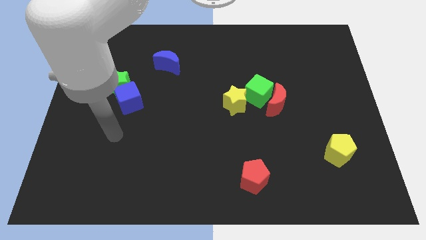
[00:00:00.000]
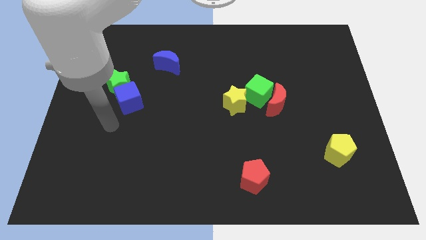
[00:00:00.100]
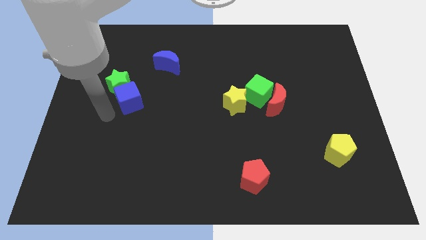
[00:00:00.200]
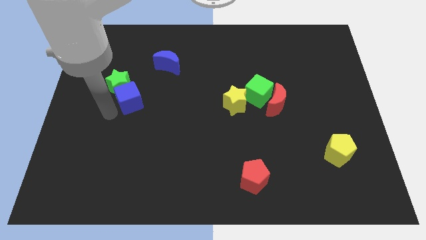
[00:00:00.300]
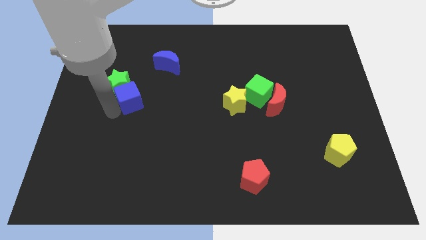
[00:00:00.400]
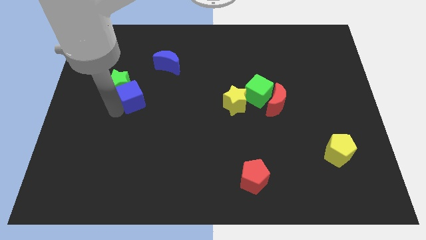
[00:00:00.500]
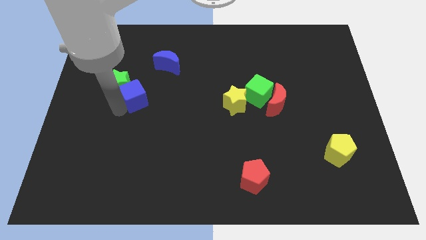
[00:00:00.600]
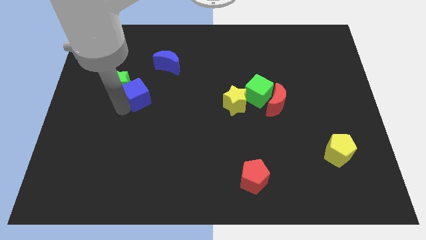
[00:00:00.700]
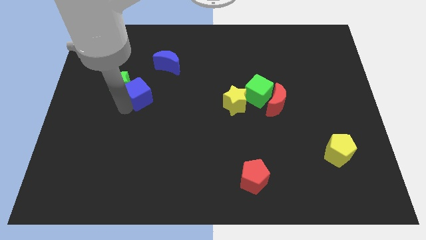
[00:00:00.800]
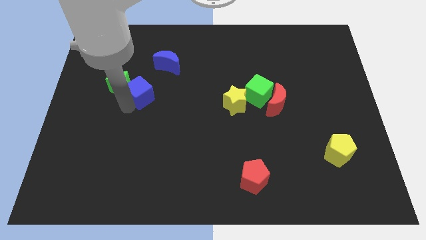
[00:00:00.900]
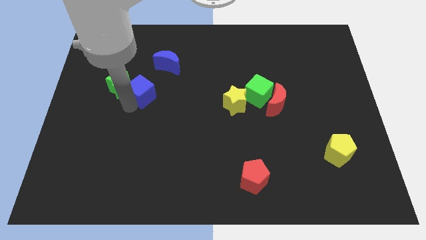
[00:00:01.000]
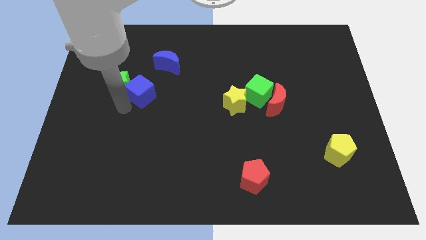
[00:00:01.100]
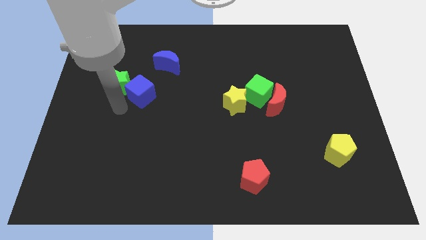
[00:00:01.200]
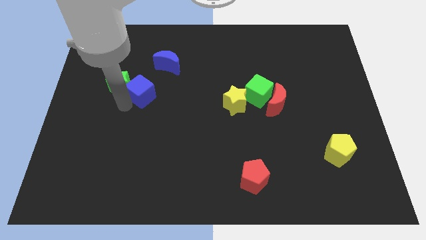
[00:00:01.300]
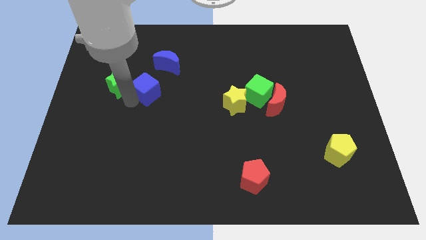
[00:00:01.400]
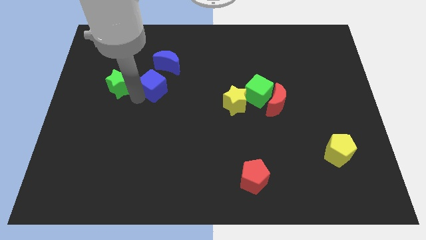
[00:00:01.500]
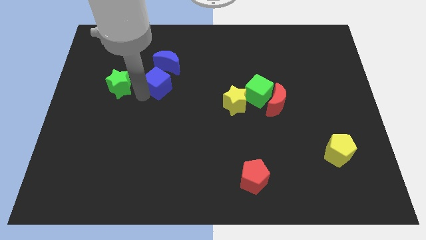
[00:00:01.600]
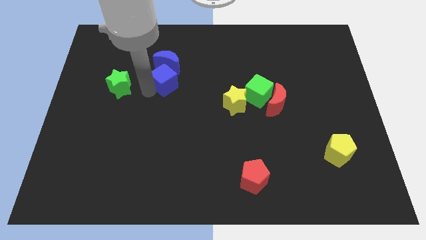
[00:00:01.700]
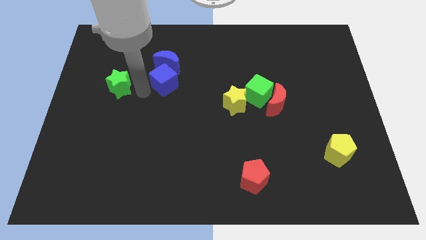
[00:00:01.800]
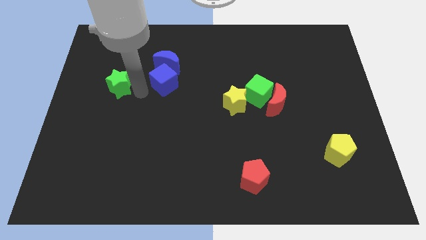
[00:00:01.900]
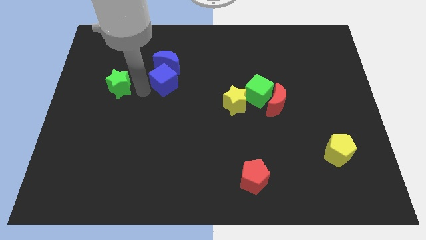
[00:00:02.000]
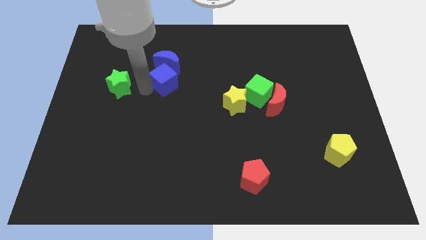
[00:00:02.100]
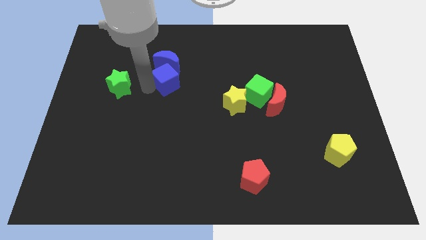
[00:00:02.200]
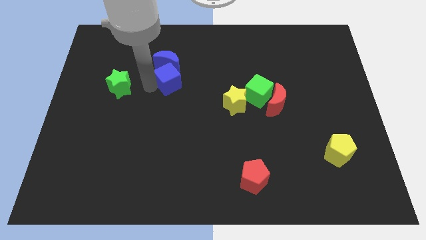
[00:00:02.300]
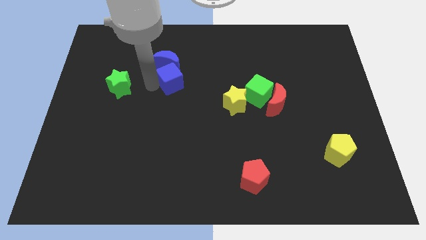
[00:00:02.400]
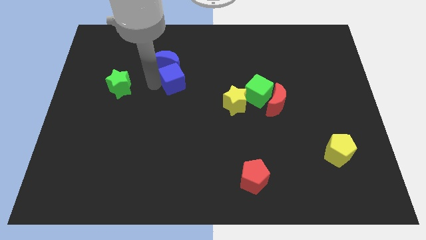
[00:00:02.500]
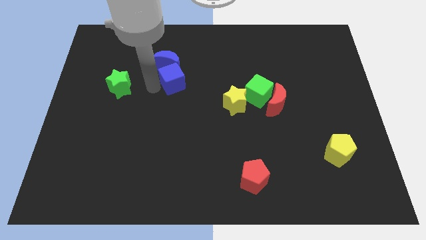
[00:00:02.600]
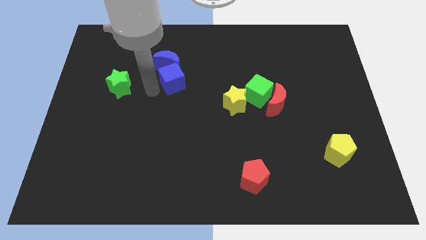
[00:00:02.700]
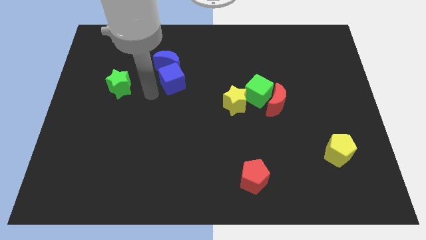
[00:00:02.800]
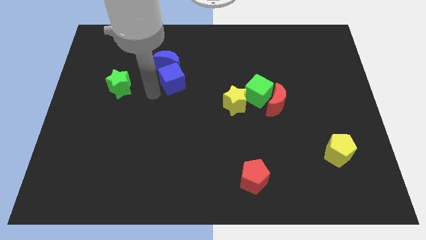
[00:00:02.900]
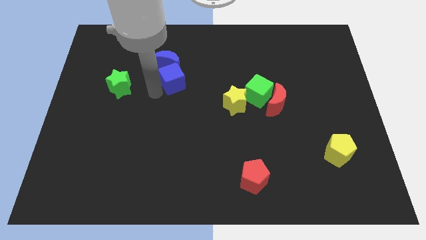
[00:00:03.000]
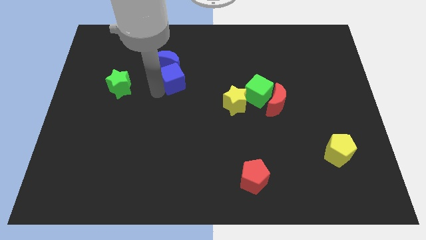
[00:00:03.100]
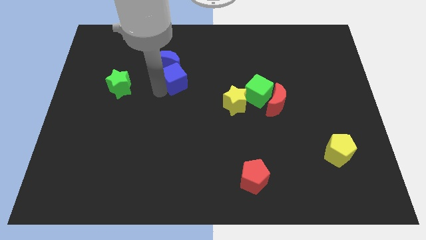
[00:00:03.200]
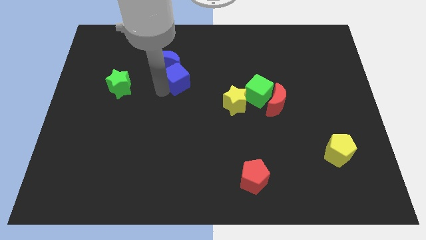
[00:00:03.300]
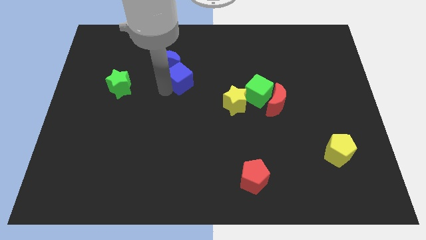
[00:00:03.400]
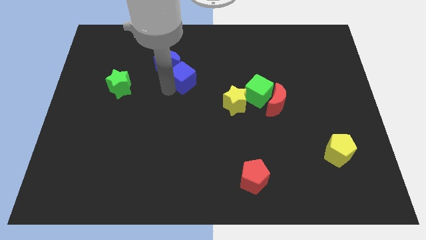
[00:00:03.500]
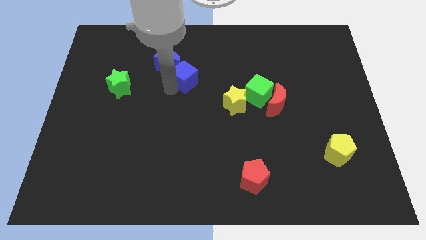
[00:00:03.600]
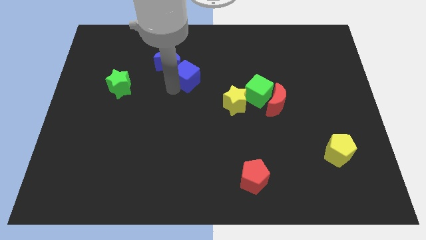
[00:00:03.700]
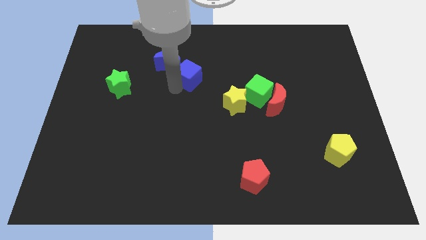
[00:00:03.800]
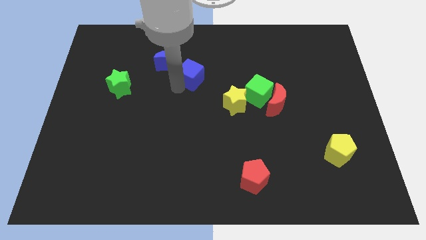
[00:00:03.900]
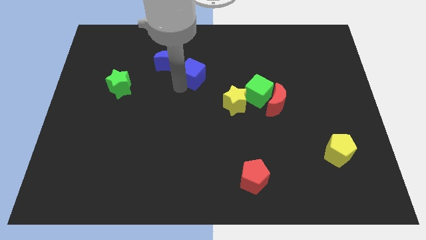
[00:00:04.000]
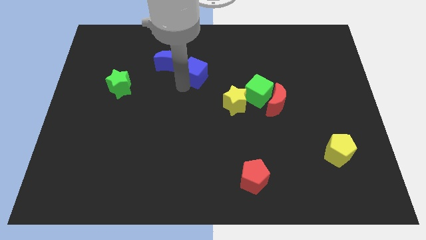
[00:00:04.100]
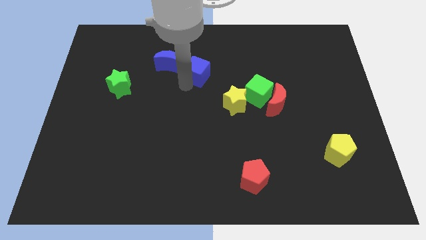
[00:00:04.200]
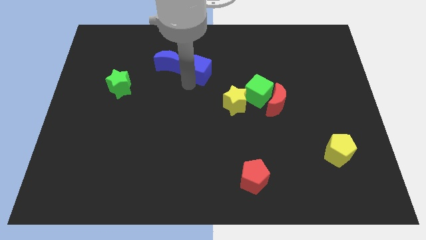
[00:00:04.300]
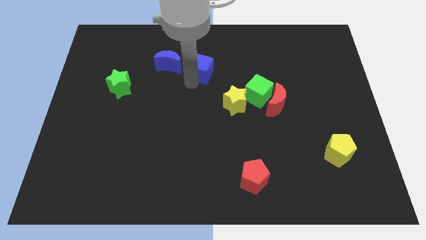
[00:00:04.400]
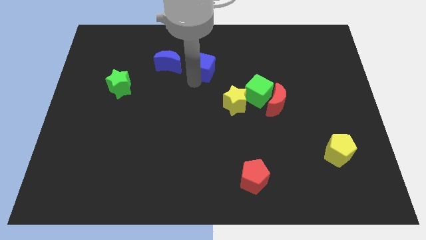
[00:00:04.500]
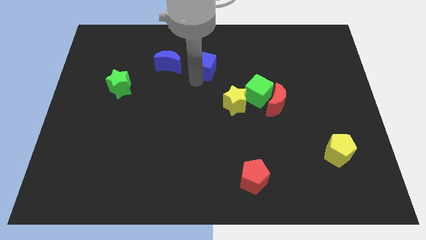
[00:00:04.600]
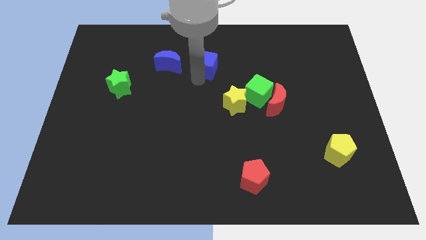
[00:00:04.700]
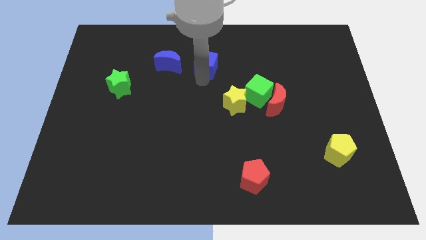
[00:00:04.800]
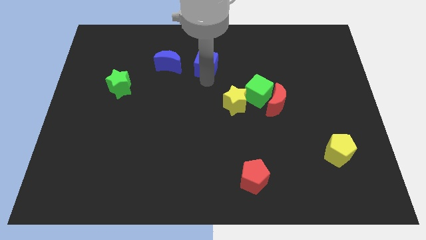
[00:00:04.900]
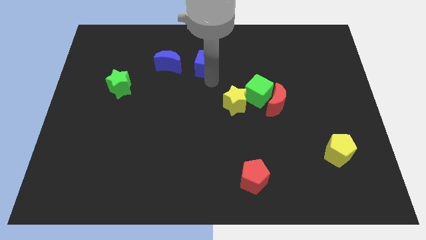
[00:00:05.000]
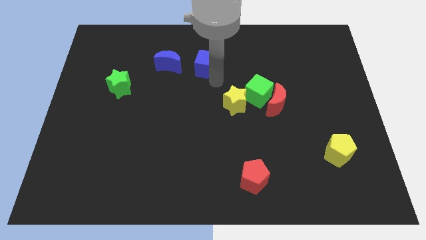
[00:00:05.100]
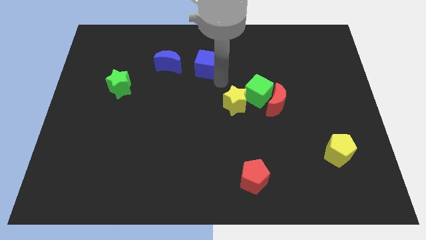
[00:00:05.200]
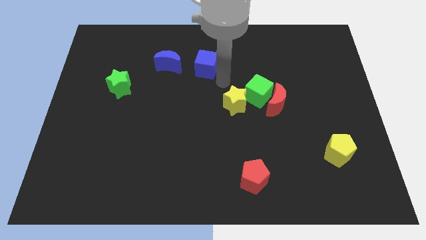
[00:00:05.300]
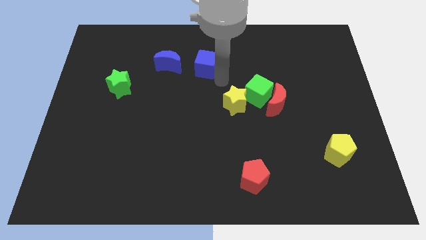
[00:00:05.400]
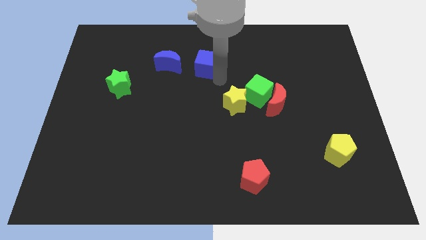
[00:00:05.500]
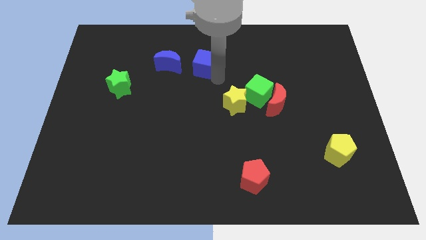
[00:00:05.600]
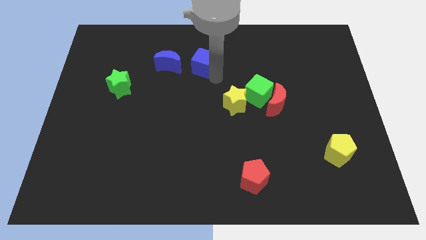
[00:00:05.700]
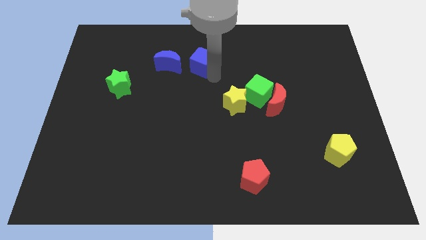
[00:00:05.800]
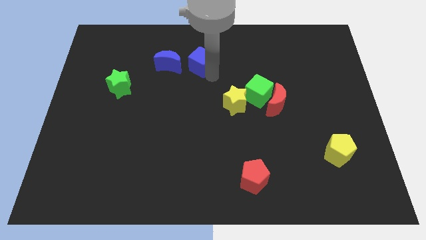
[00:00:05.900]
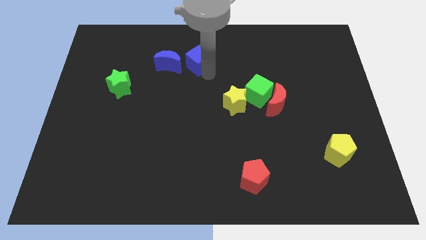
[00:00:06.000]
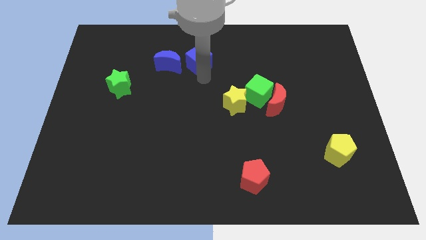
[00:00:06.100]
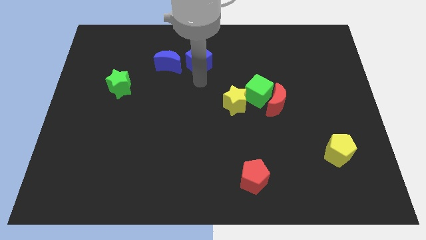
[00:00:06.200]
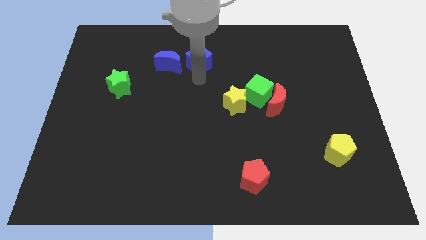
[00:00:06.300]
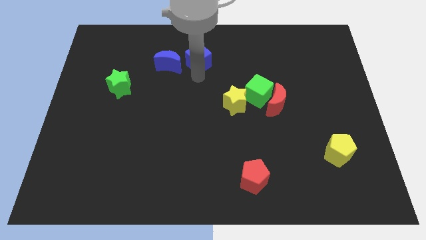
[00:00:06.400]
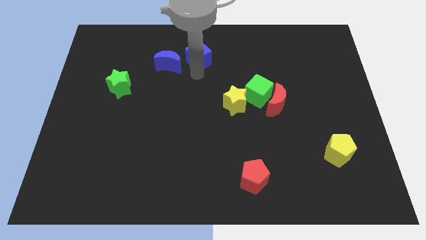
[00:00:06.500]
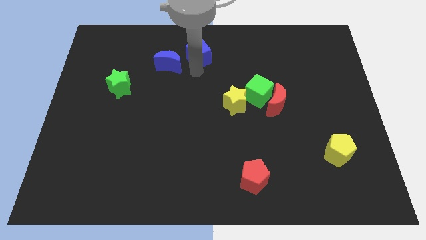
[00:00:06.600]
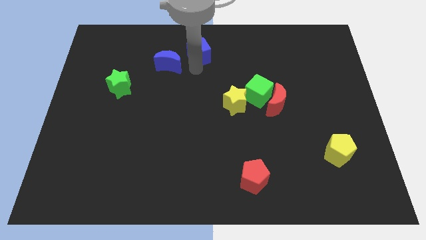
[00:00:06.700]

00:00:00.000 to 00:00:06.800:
push the blue cube to the top side
